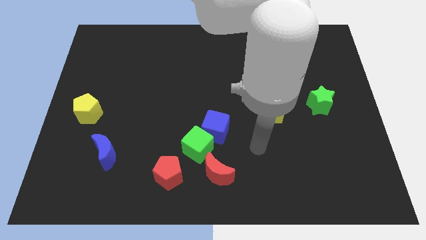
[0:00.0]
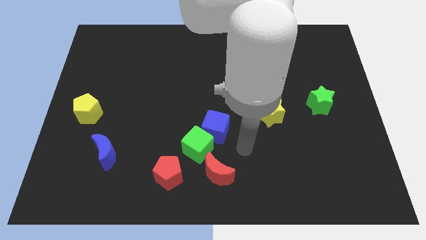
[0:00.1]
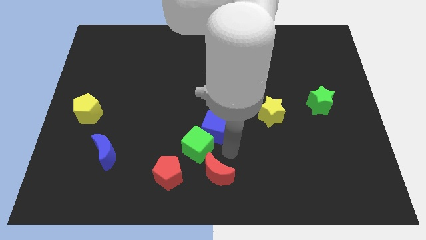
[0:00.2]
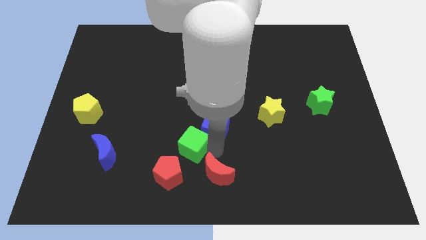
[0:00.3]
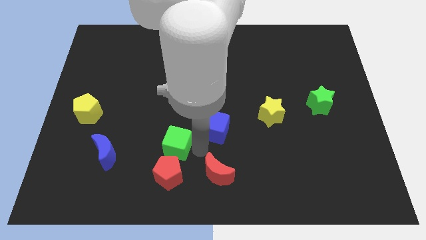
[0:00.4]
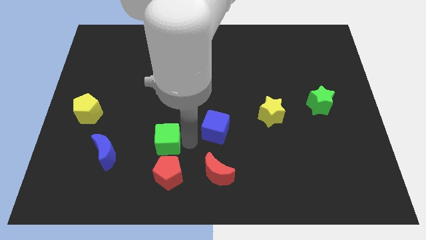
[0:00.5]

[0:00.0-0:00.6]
pull the blue cube apart from the green cube

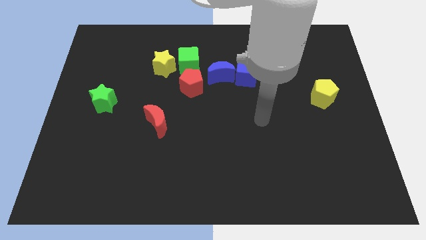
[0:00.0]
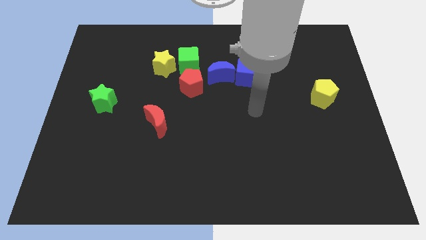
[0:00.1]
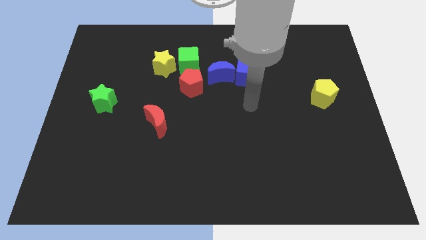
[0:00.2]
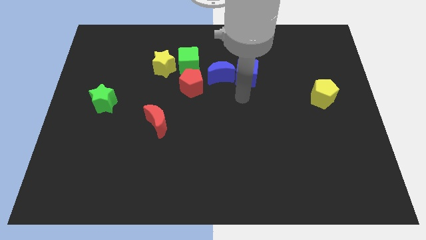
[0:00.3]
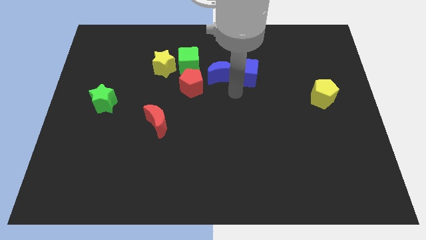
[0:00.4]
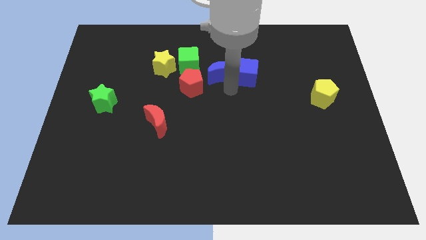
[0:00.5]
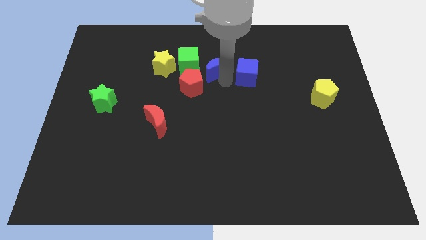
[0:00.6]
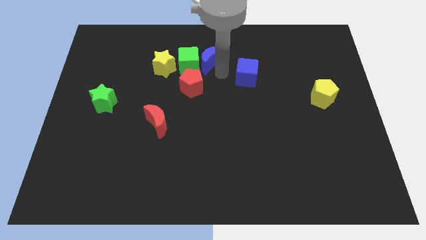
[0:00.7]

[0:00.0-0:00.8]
separate the blue cube from the blue moon

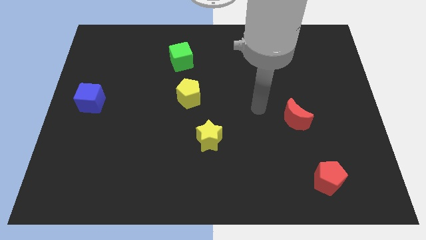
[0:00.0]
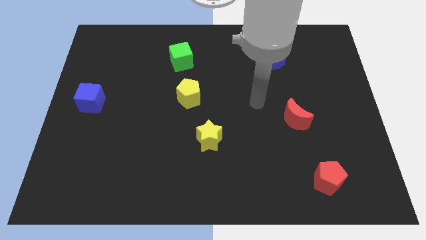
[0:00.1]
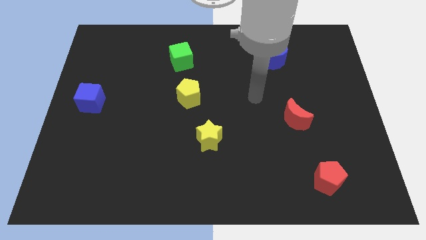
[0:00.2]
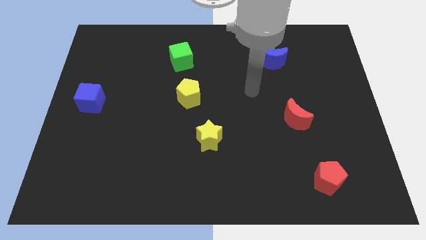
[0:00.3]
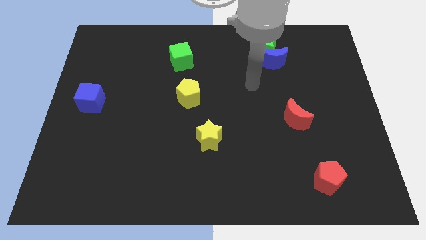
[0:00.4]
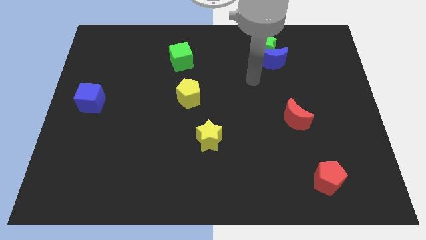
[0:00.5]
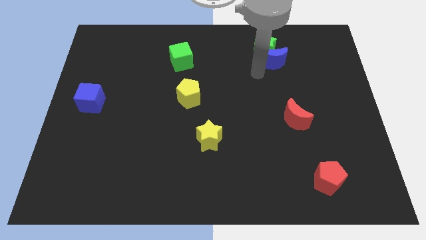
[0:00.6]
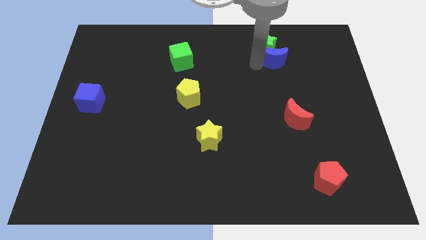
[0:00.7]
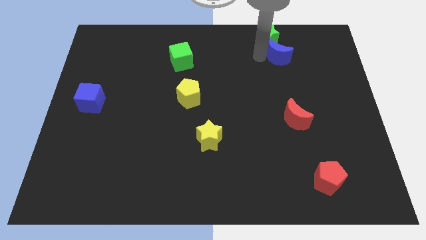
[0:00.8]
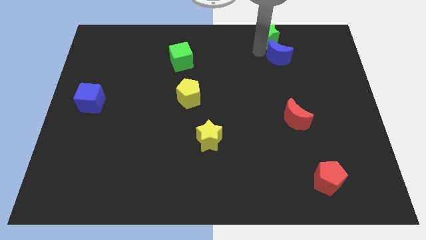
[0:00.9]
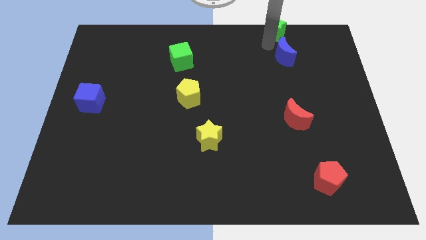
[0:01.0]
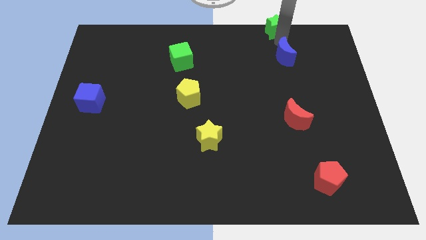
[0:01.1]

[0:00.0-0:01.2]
move the blue moon away from the green star

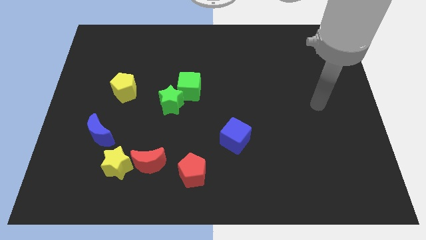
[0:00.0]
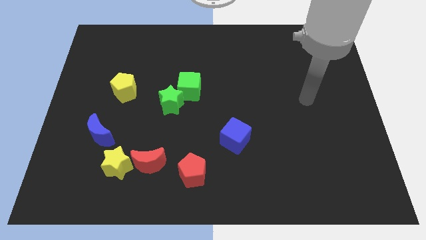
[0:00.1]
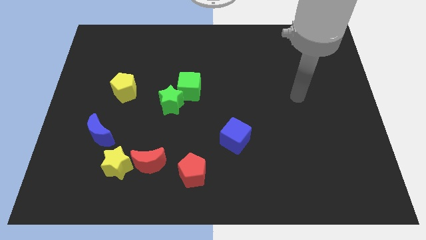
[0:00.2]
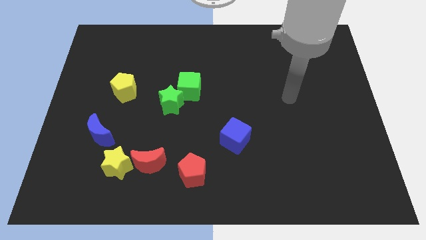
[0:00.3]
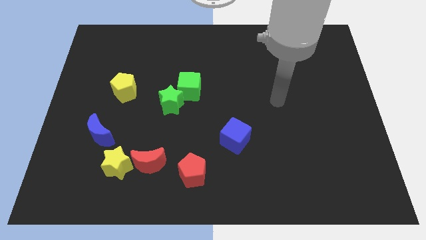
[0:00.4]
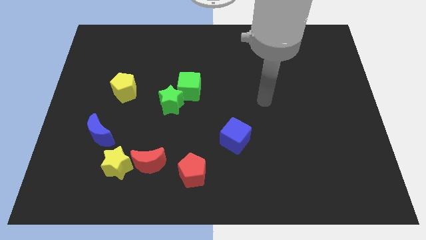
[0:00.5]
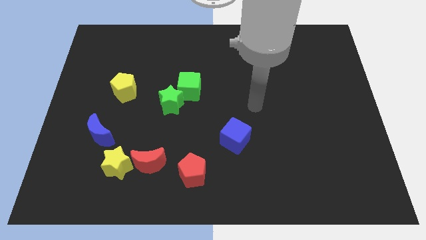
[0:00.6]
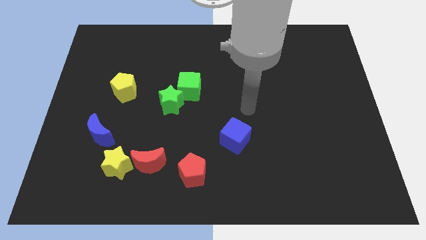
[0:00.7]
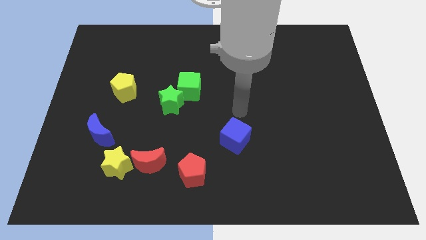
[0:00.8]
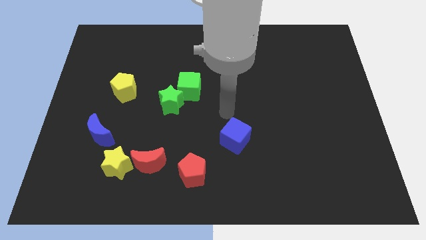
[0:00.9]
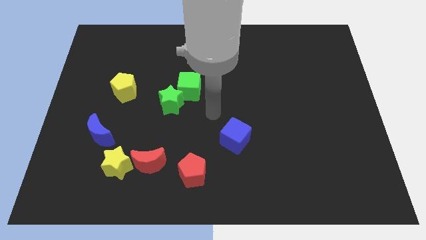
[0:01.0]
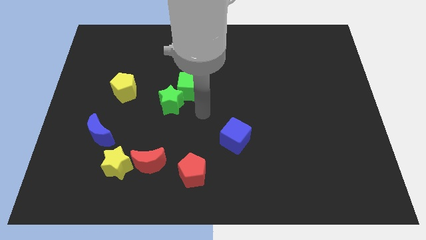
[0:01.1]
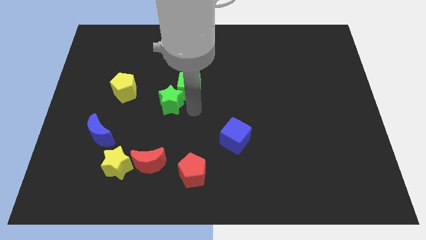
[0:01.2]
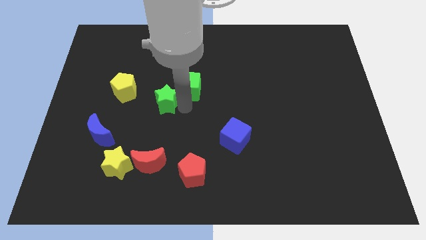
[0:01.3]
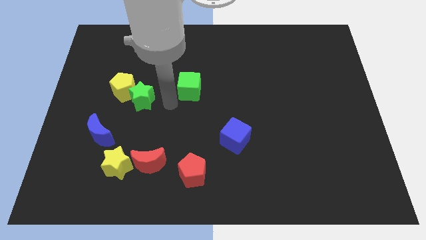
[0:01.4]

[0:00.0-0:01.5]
move the green cube away from the green star

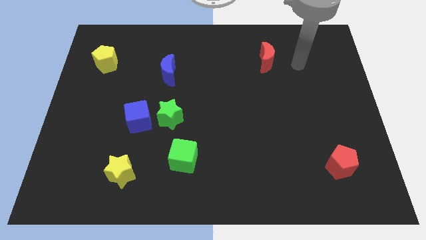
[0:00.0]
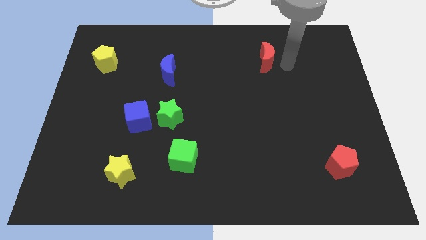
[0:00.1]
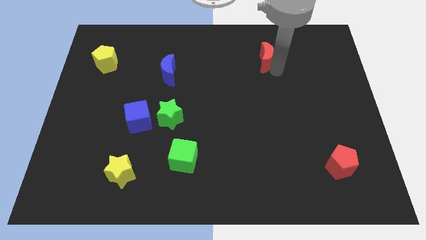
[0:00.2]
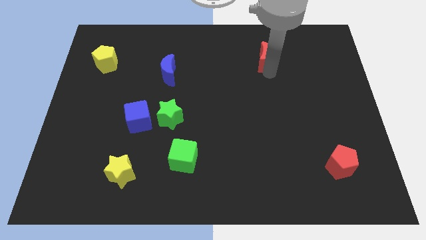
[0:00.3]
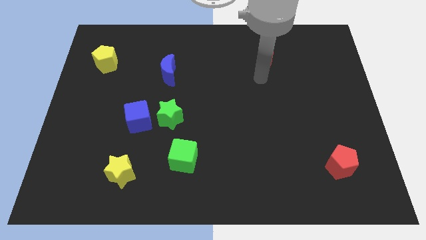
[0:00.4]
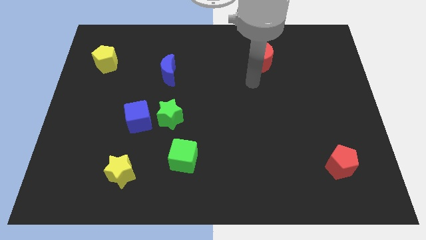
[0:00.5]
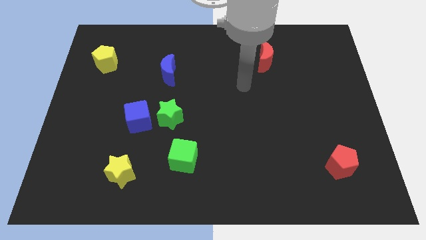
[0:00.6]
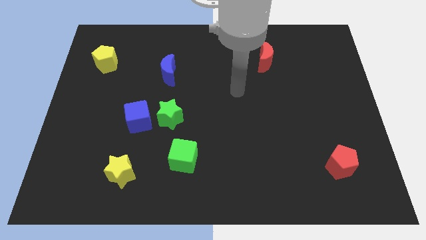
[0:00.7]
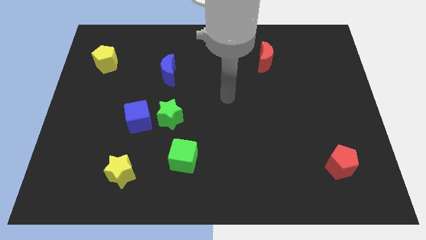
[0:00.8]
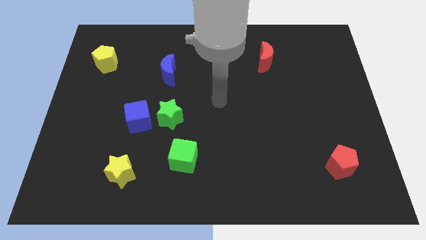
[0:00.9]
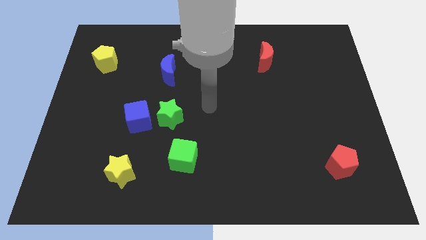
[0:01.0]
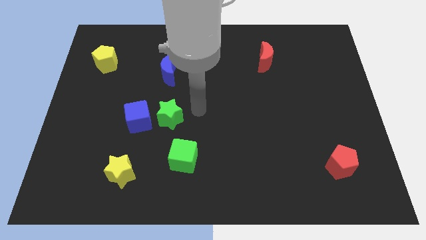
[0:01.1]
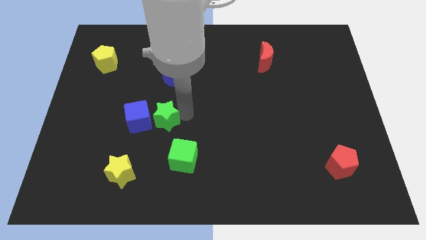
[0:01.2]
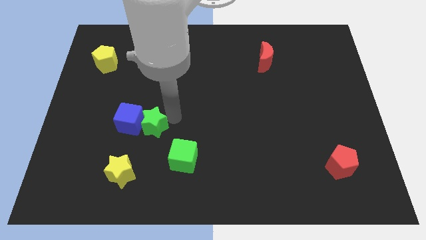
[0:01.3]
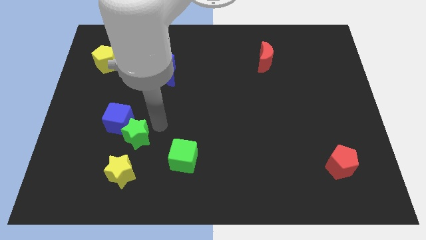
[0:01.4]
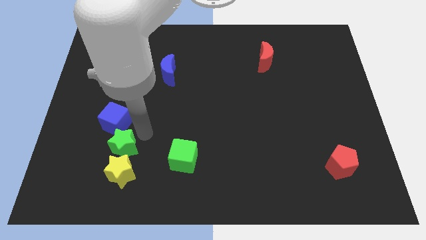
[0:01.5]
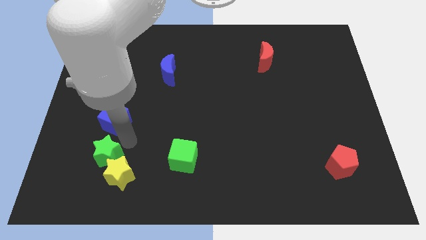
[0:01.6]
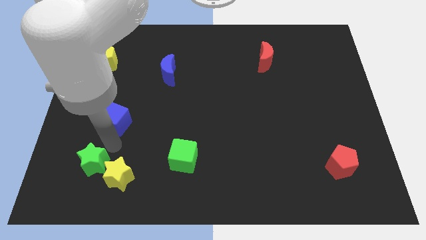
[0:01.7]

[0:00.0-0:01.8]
separate the blue cube from the green star

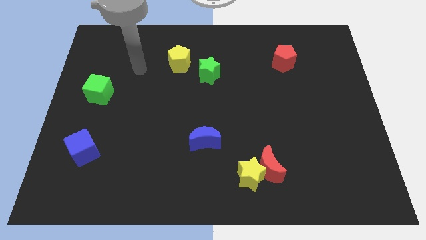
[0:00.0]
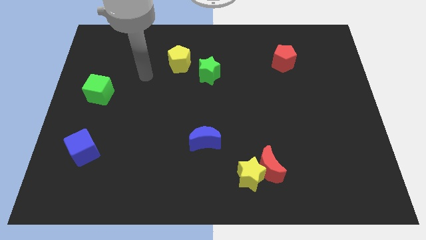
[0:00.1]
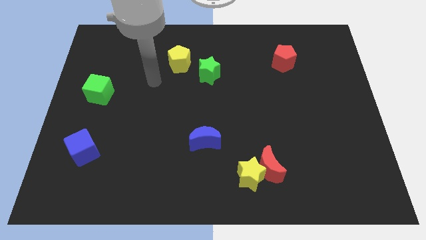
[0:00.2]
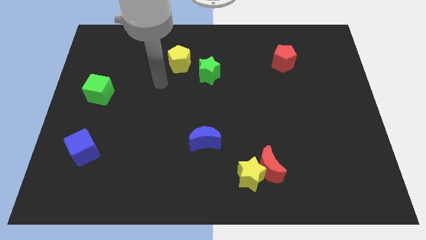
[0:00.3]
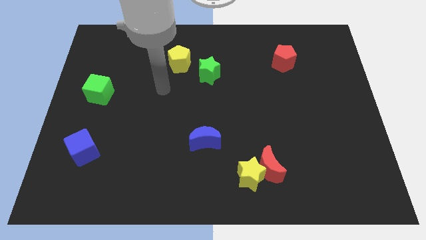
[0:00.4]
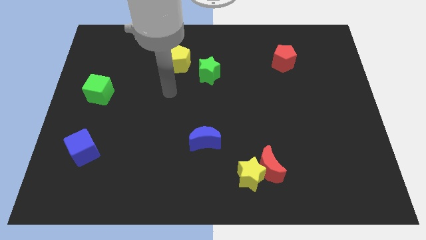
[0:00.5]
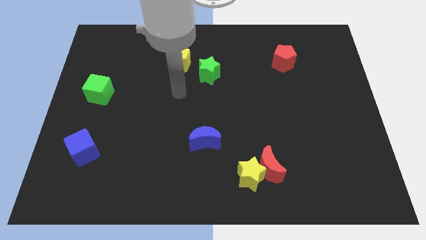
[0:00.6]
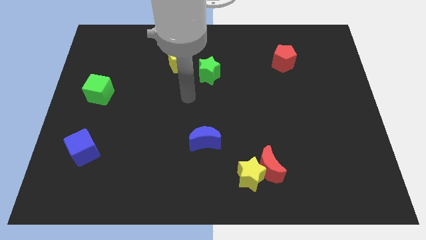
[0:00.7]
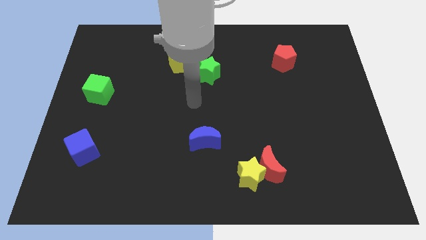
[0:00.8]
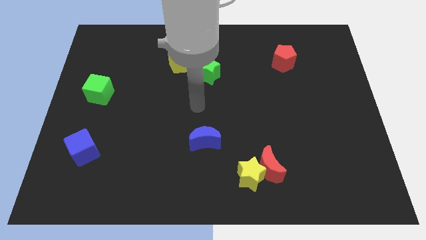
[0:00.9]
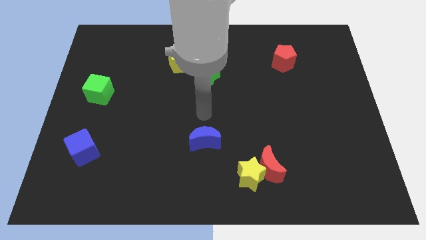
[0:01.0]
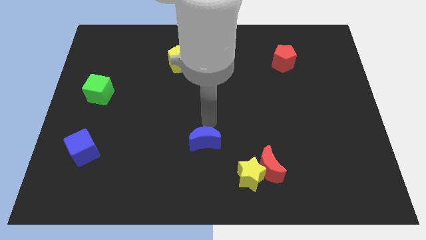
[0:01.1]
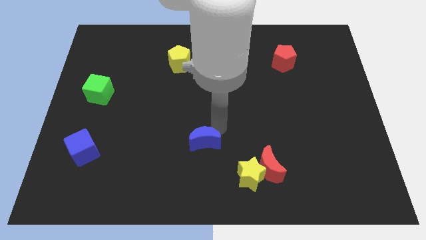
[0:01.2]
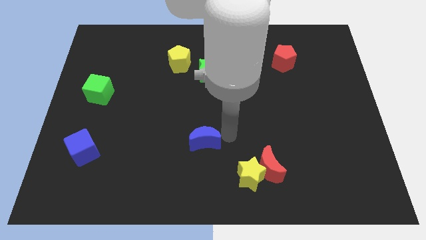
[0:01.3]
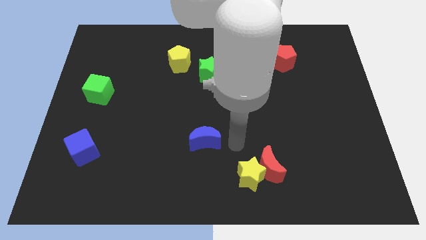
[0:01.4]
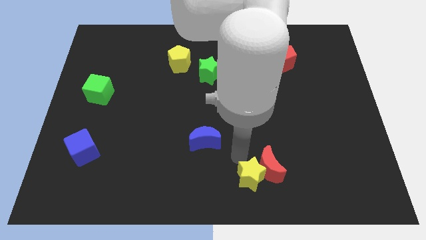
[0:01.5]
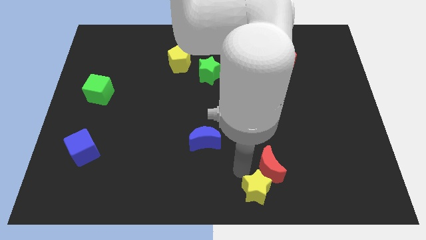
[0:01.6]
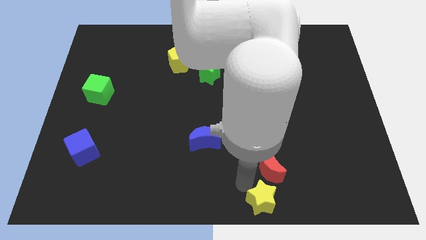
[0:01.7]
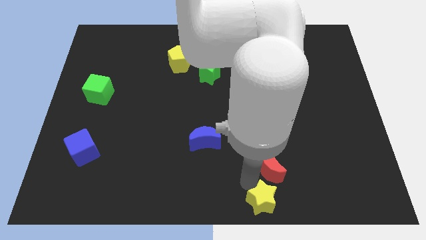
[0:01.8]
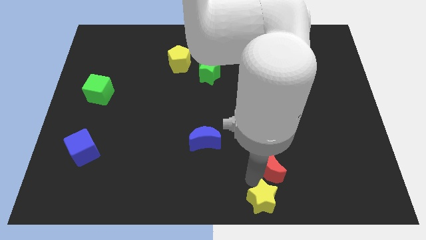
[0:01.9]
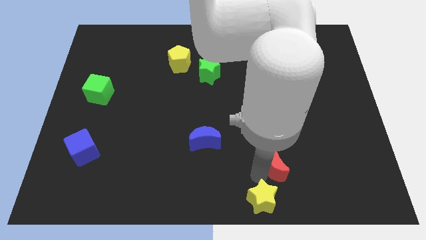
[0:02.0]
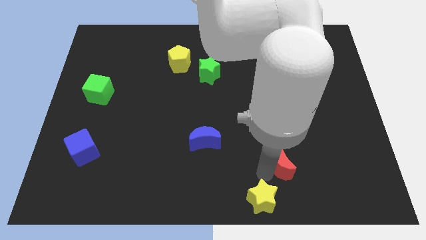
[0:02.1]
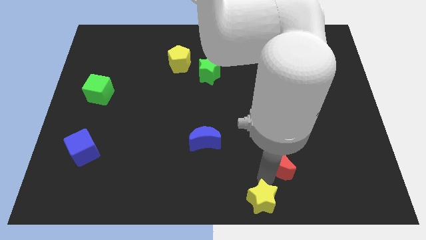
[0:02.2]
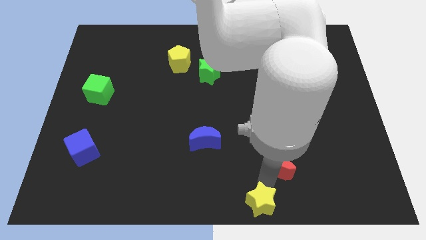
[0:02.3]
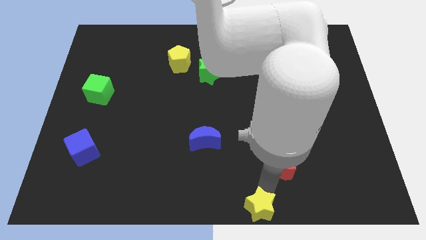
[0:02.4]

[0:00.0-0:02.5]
separate the red moon from the yellow star

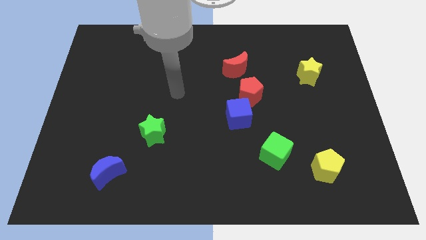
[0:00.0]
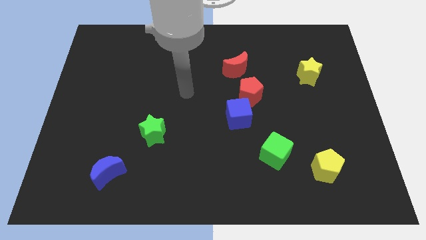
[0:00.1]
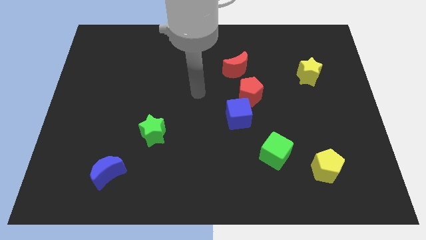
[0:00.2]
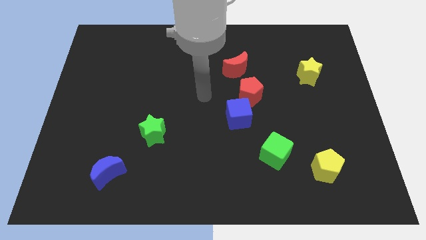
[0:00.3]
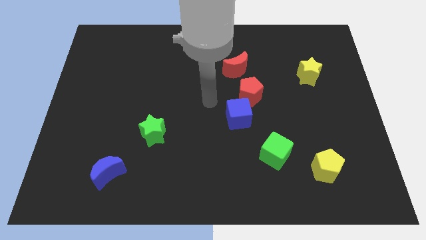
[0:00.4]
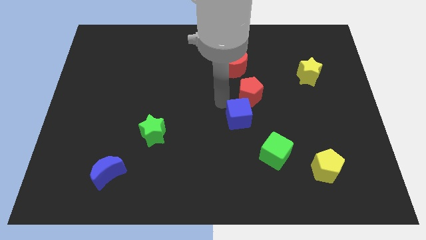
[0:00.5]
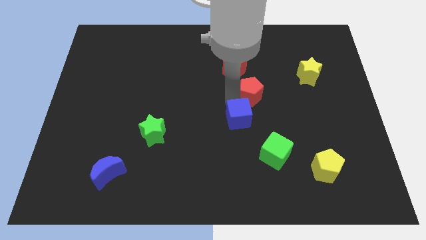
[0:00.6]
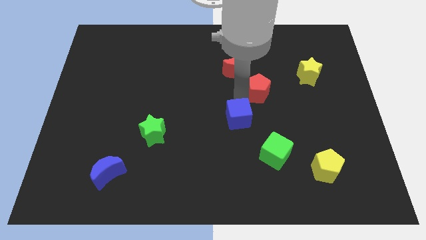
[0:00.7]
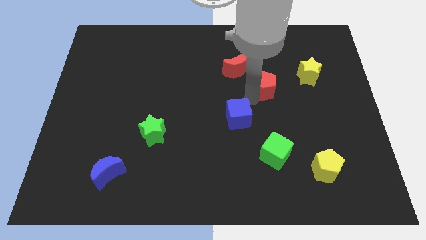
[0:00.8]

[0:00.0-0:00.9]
pull the blue cube apart from the red pentagon
